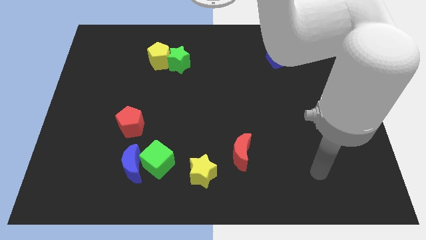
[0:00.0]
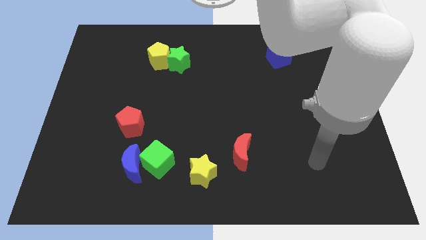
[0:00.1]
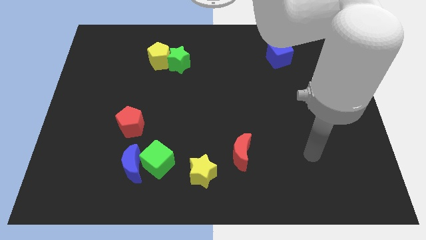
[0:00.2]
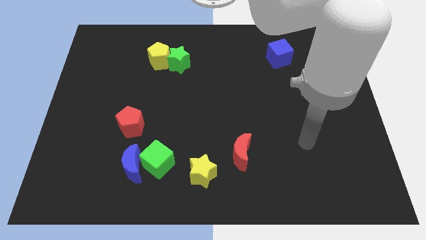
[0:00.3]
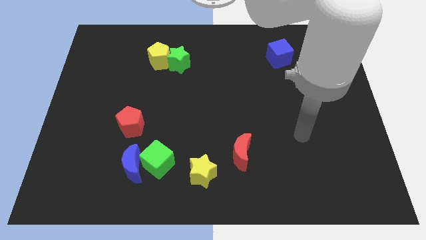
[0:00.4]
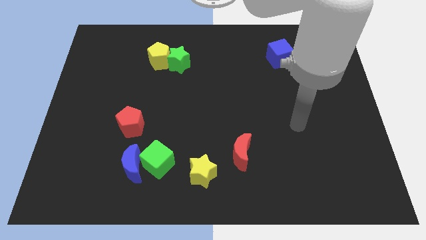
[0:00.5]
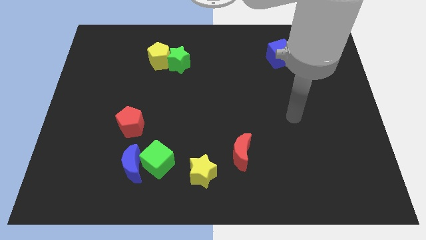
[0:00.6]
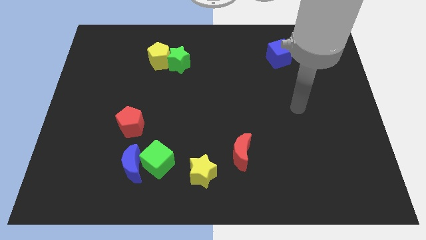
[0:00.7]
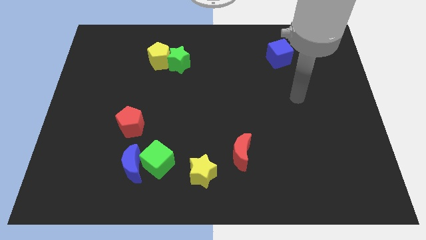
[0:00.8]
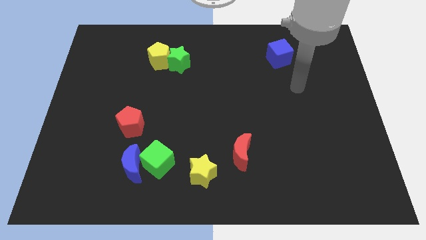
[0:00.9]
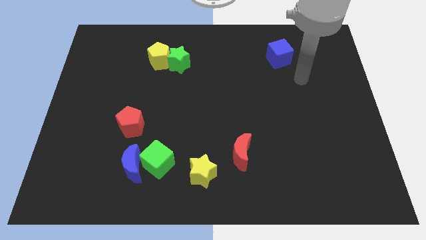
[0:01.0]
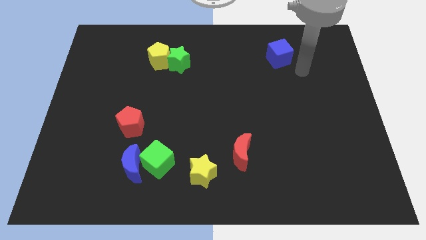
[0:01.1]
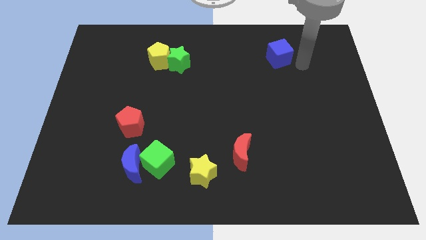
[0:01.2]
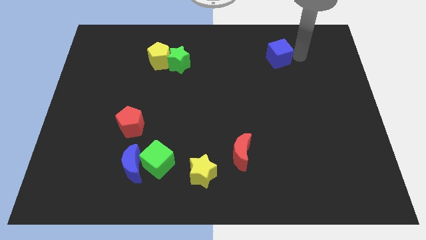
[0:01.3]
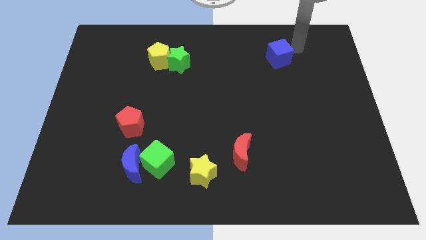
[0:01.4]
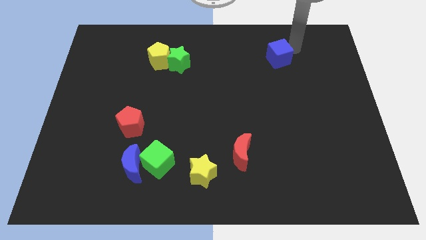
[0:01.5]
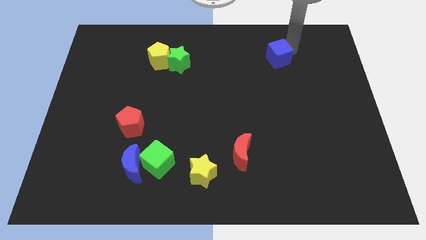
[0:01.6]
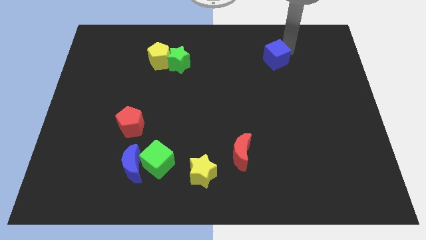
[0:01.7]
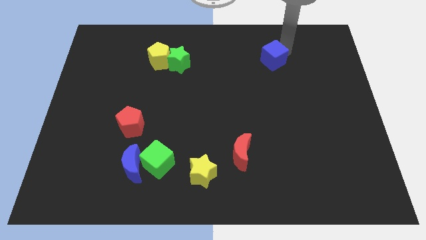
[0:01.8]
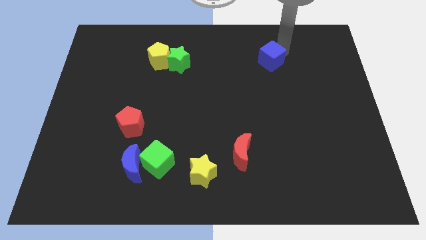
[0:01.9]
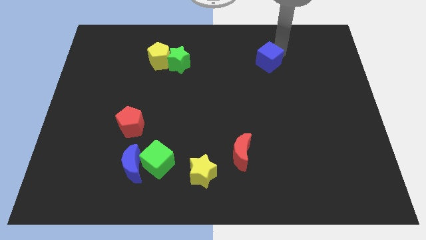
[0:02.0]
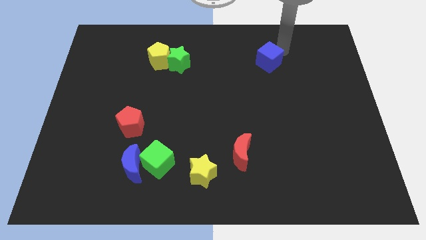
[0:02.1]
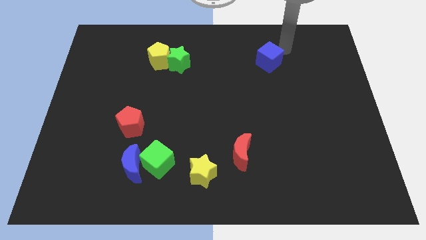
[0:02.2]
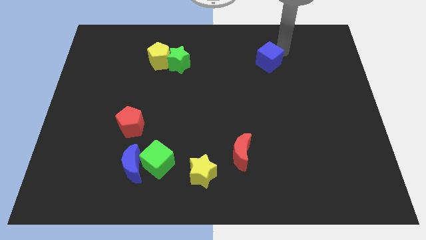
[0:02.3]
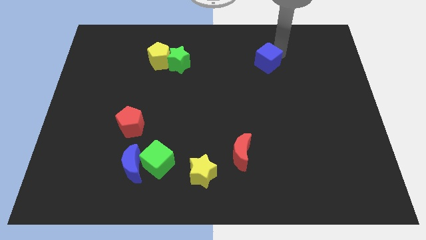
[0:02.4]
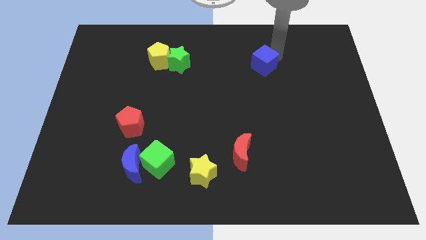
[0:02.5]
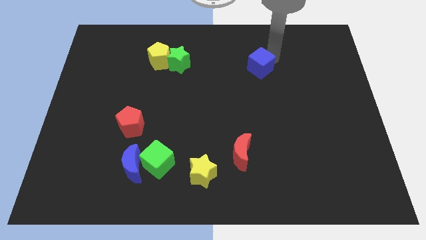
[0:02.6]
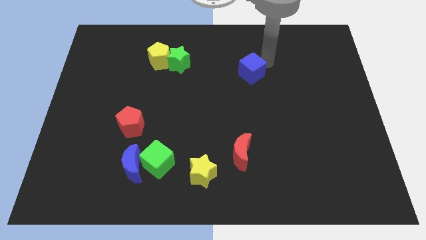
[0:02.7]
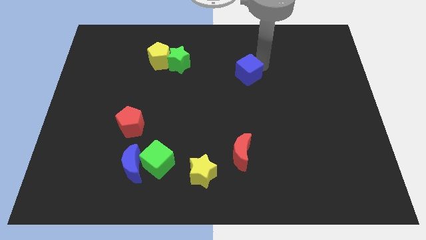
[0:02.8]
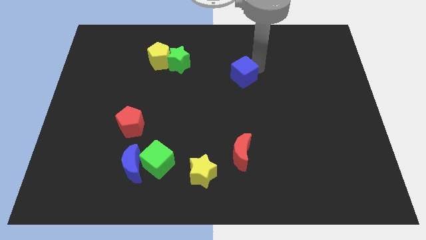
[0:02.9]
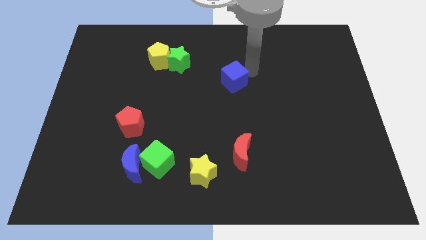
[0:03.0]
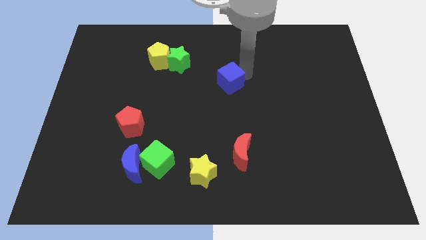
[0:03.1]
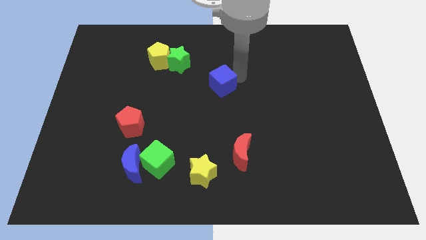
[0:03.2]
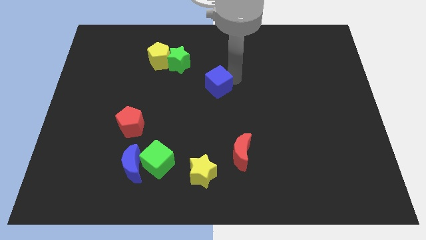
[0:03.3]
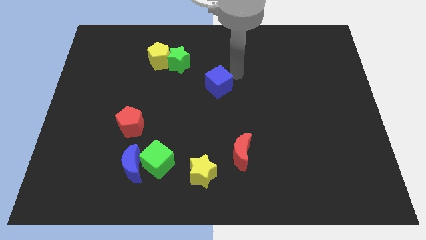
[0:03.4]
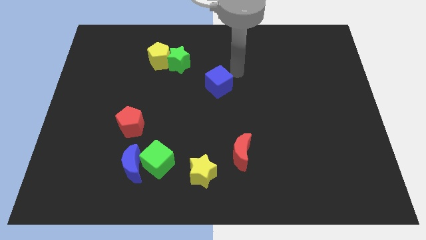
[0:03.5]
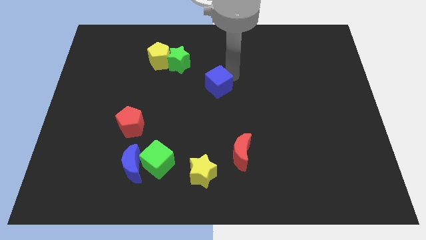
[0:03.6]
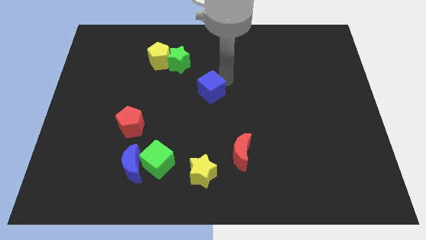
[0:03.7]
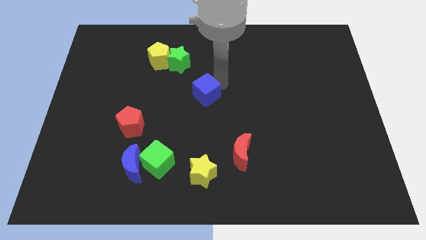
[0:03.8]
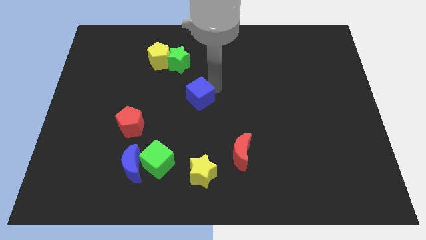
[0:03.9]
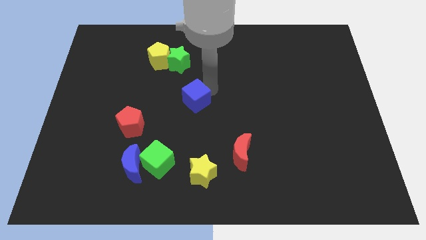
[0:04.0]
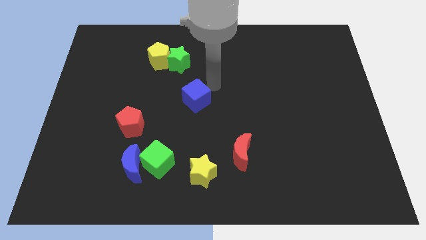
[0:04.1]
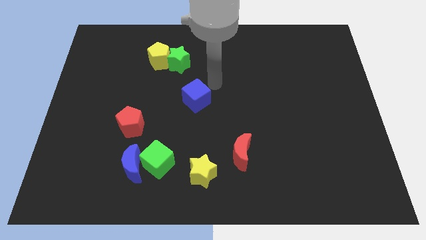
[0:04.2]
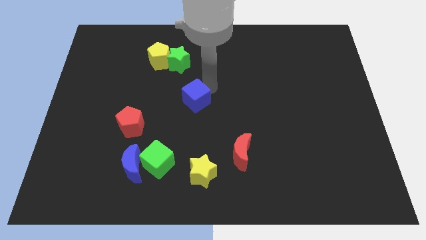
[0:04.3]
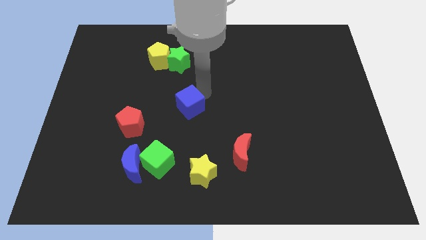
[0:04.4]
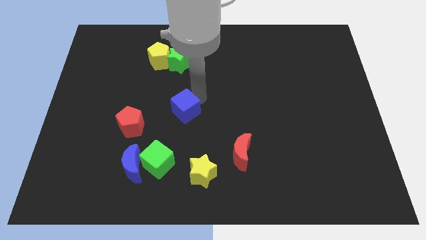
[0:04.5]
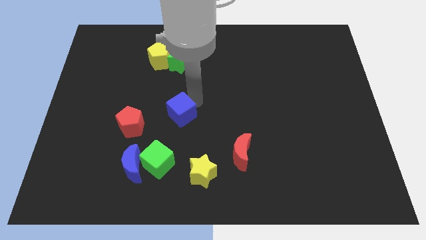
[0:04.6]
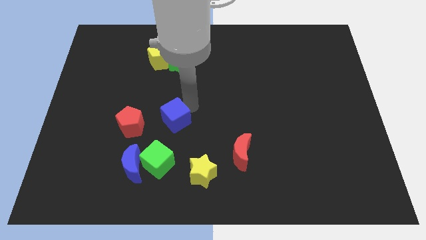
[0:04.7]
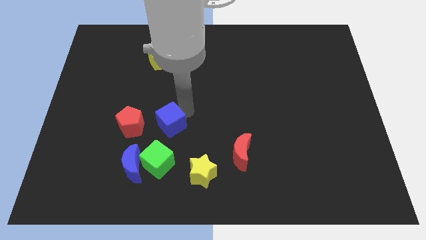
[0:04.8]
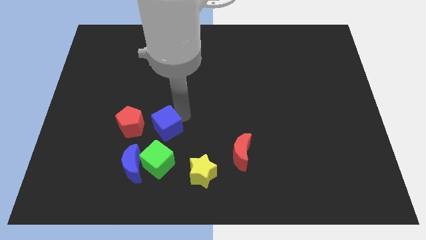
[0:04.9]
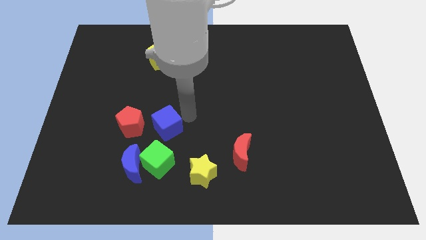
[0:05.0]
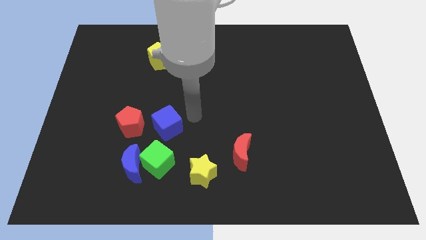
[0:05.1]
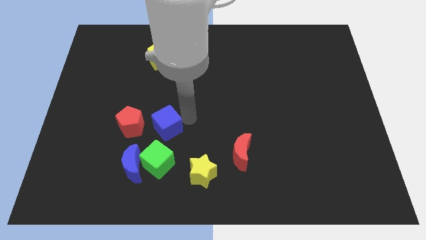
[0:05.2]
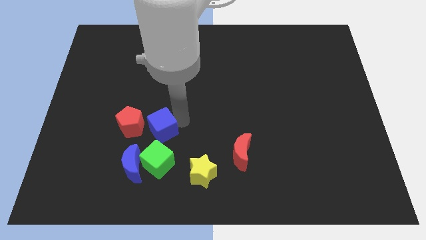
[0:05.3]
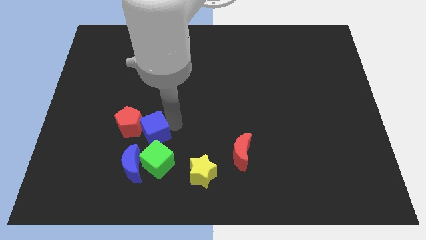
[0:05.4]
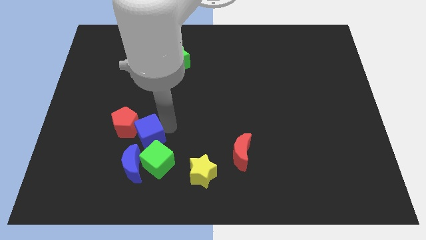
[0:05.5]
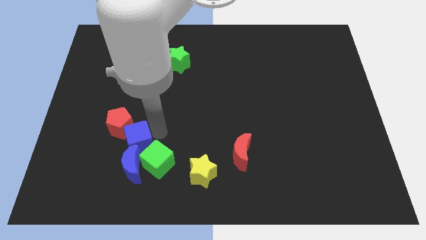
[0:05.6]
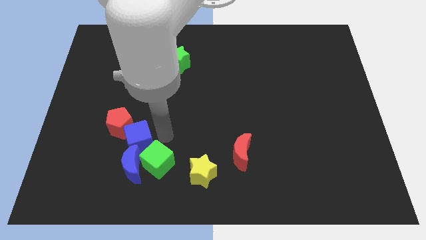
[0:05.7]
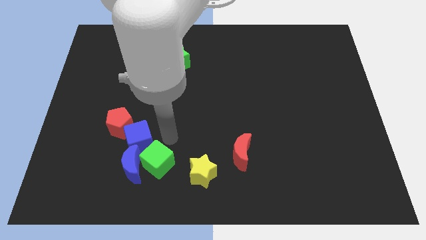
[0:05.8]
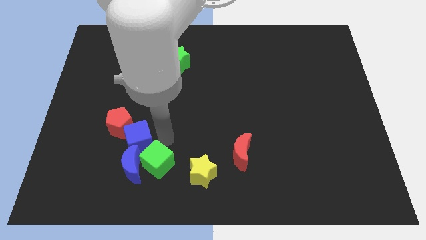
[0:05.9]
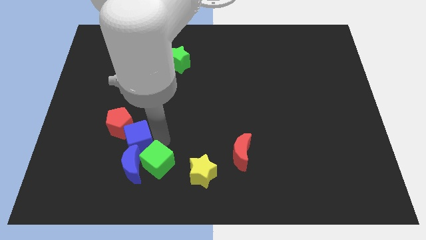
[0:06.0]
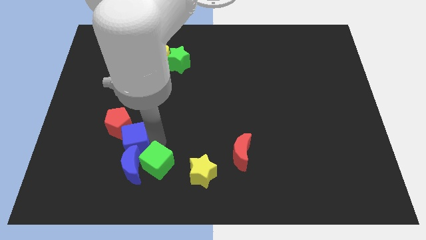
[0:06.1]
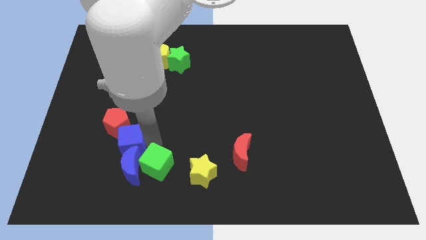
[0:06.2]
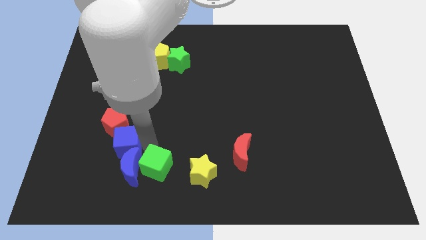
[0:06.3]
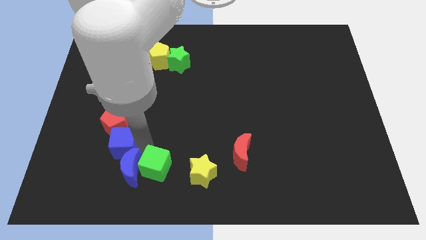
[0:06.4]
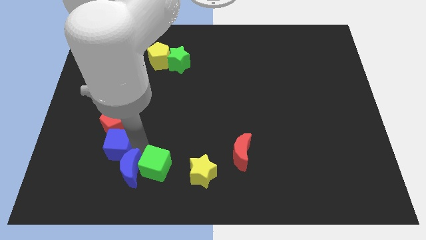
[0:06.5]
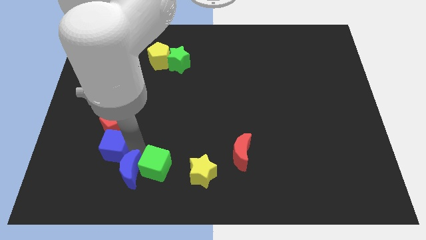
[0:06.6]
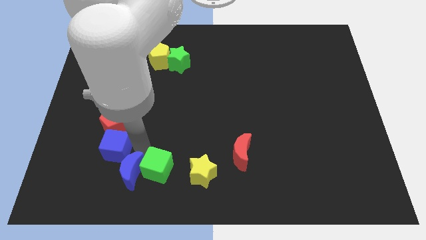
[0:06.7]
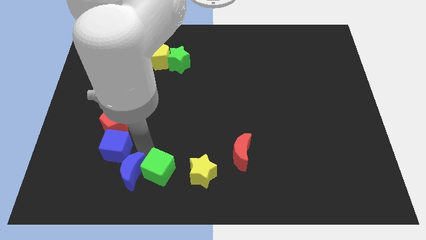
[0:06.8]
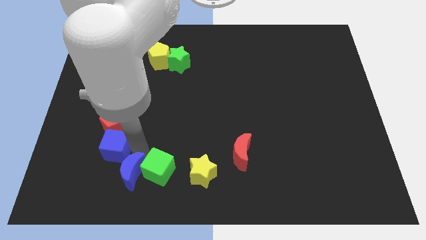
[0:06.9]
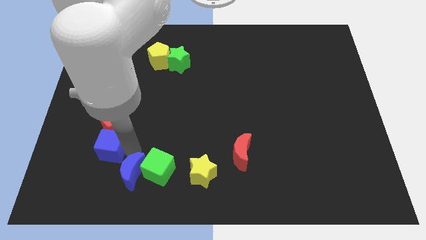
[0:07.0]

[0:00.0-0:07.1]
put the blue cube diagonally down and to the left of the red pentagon
